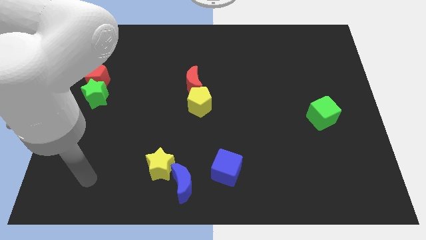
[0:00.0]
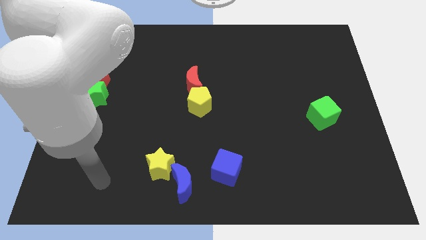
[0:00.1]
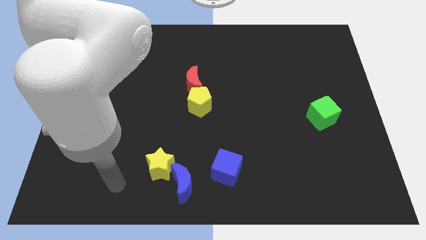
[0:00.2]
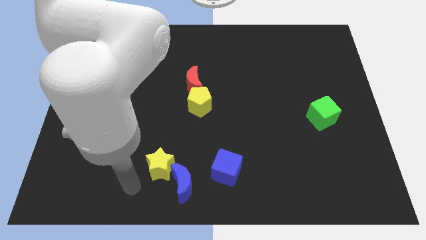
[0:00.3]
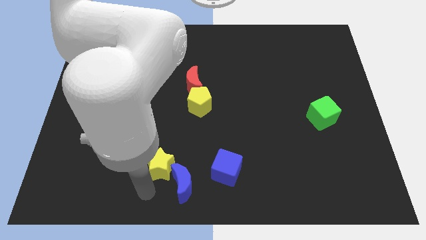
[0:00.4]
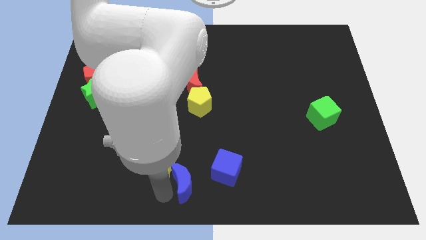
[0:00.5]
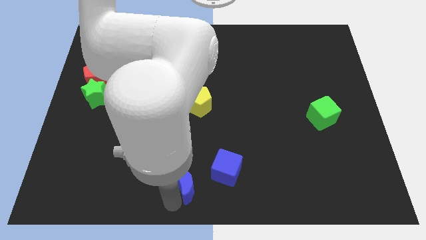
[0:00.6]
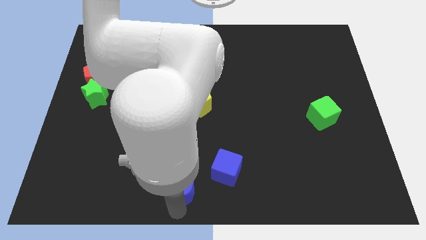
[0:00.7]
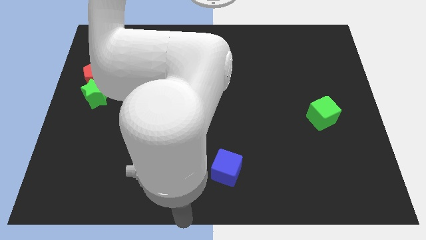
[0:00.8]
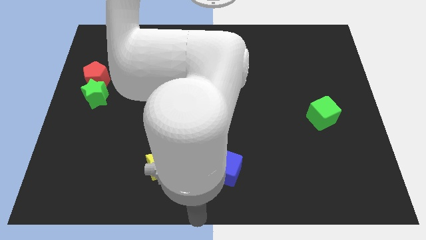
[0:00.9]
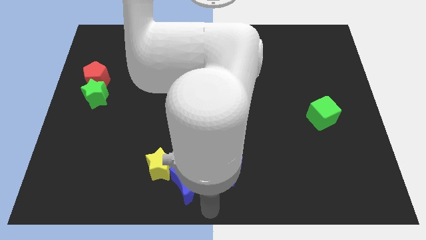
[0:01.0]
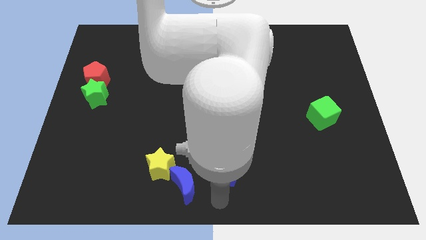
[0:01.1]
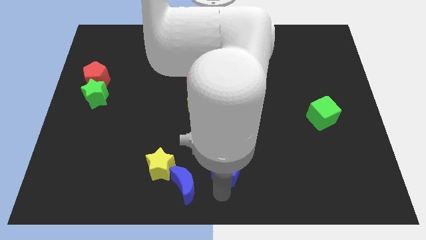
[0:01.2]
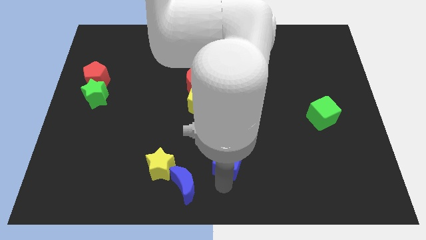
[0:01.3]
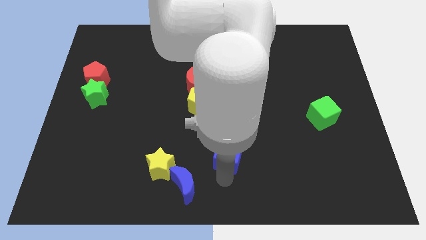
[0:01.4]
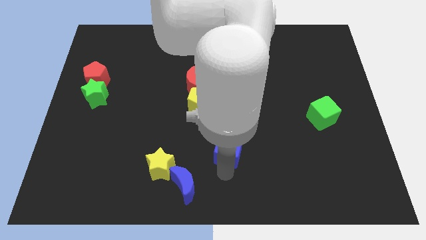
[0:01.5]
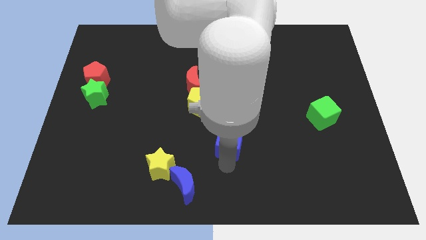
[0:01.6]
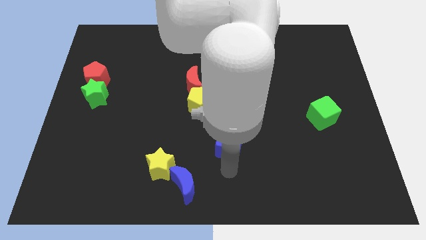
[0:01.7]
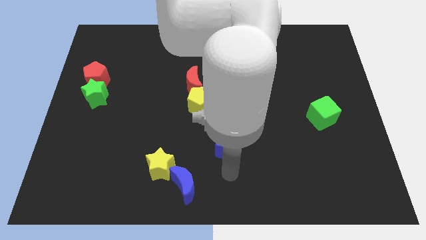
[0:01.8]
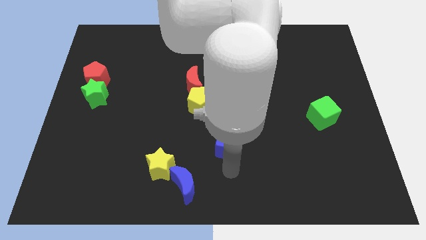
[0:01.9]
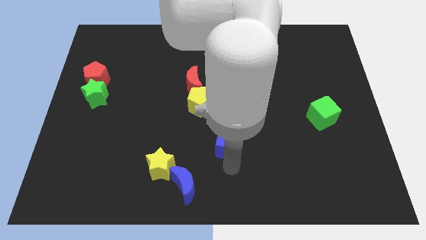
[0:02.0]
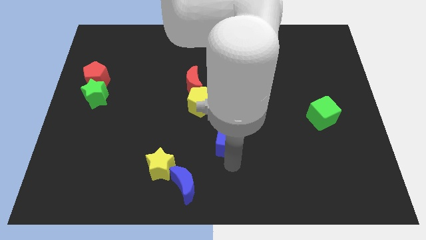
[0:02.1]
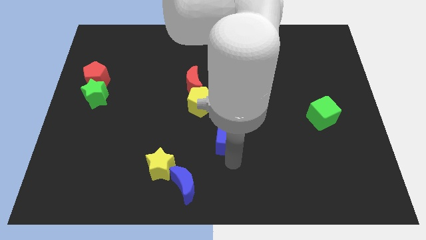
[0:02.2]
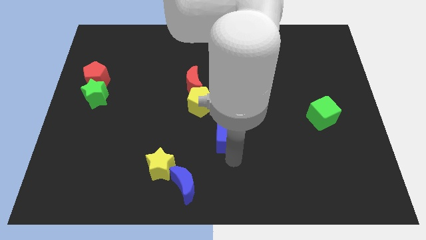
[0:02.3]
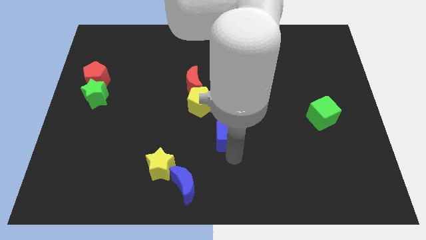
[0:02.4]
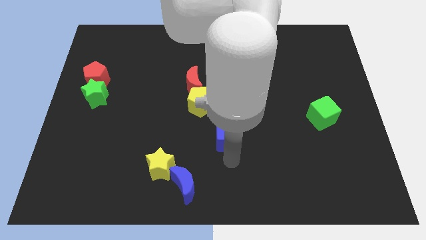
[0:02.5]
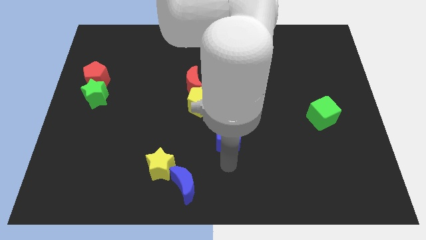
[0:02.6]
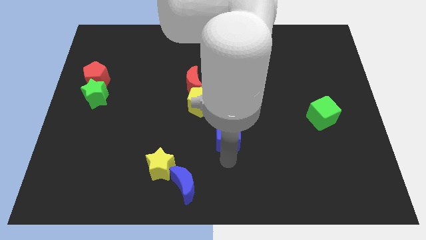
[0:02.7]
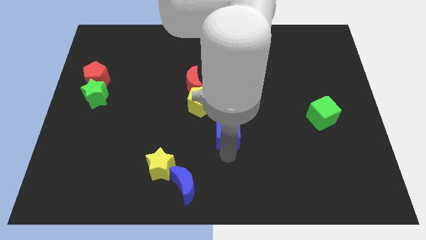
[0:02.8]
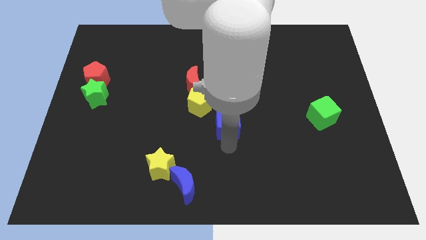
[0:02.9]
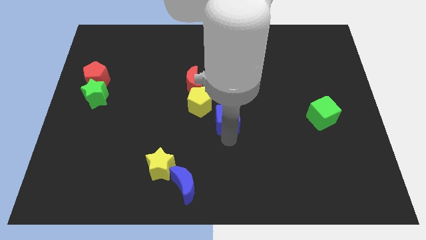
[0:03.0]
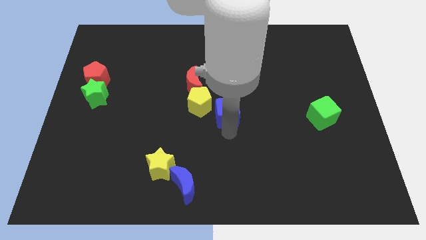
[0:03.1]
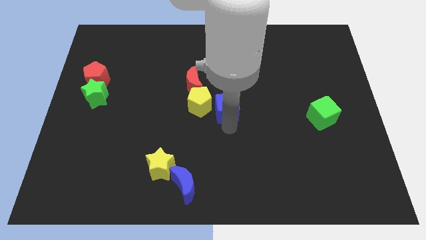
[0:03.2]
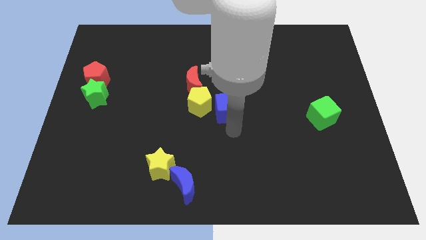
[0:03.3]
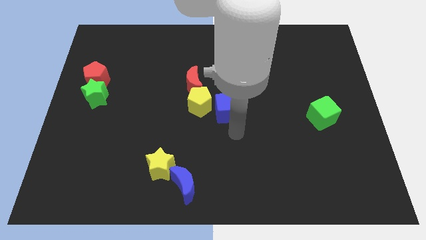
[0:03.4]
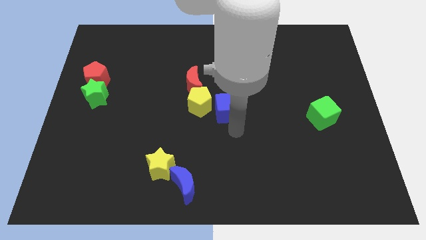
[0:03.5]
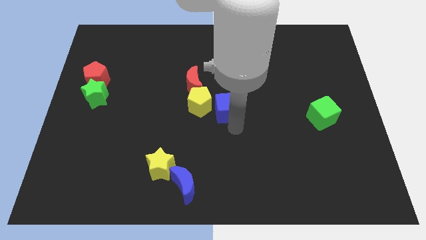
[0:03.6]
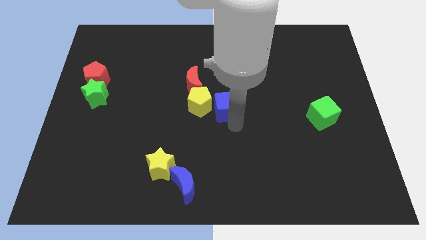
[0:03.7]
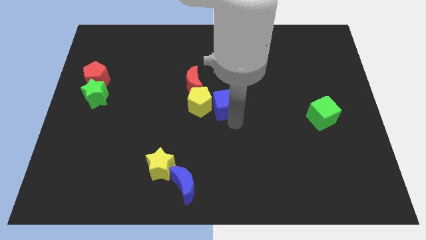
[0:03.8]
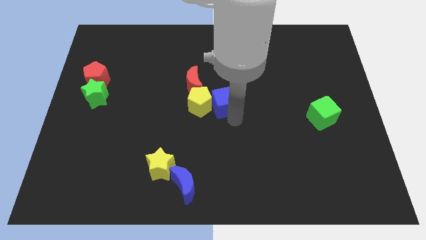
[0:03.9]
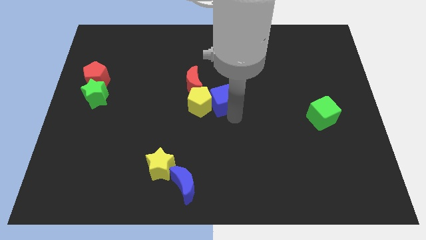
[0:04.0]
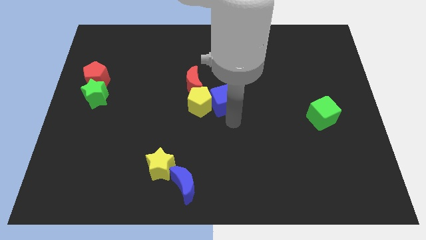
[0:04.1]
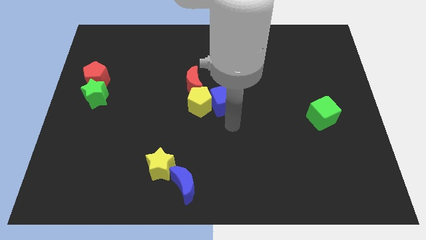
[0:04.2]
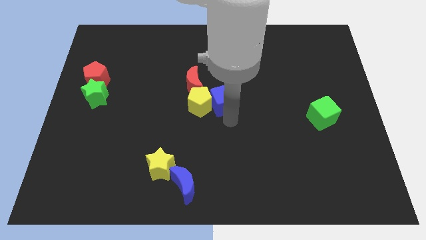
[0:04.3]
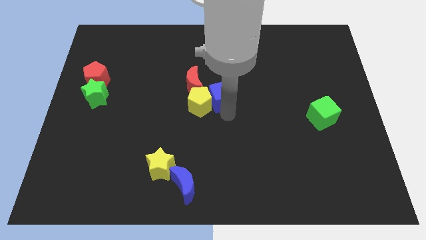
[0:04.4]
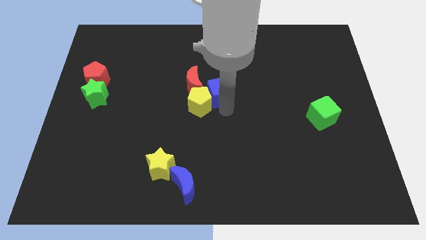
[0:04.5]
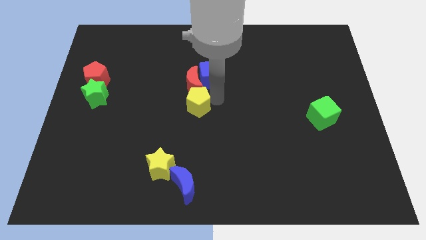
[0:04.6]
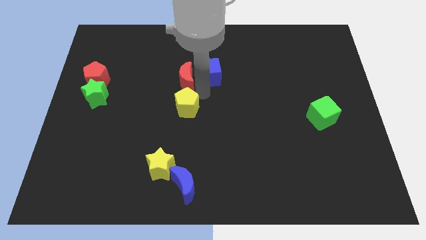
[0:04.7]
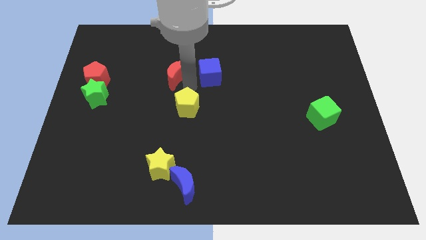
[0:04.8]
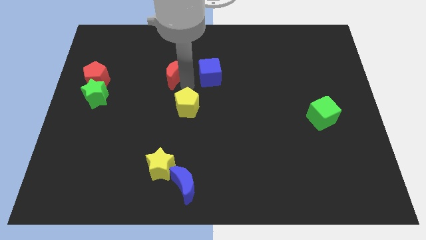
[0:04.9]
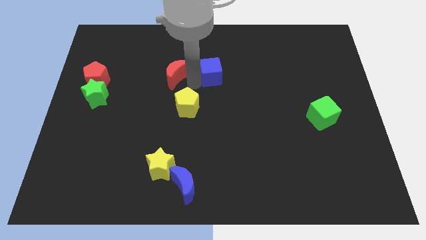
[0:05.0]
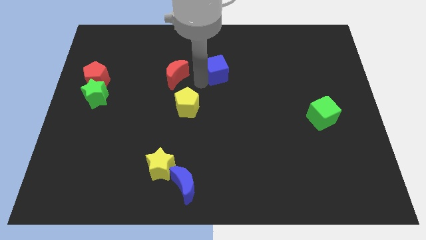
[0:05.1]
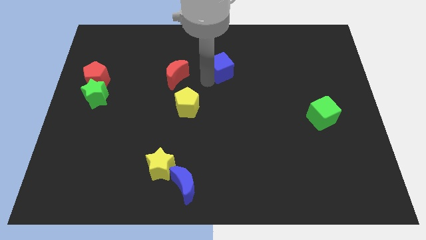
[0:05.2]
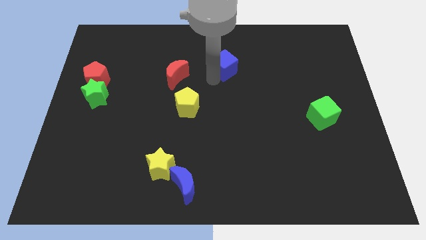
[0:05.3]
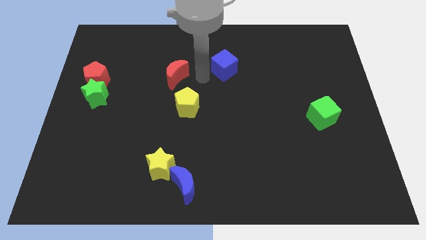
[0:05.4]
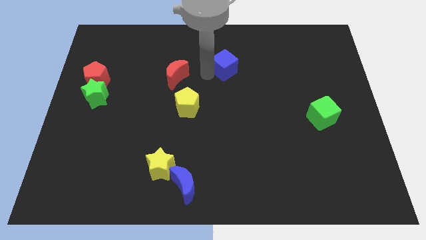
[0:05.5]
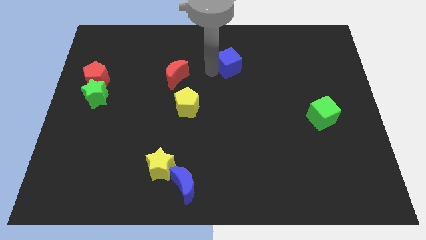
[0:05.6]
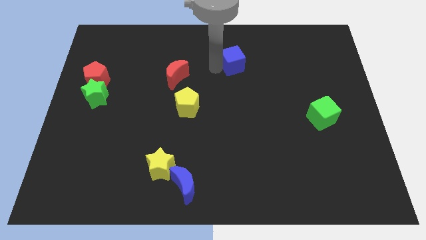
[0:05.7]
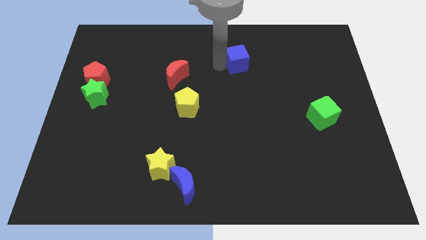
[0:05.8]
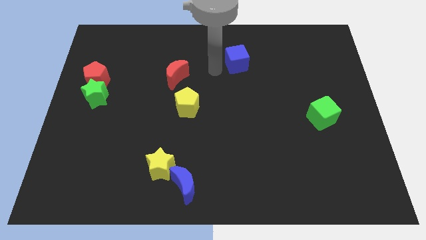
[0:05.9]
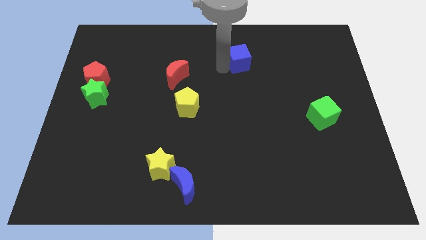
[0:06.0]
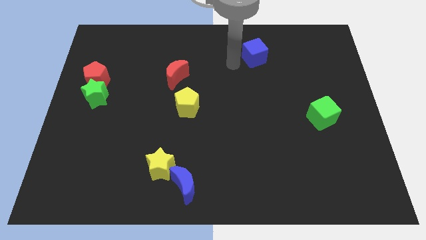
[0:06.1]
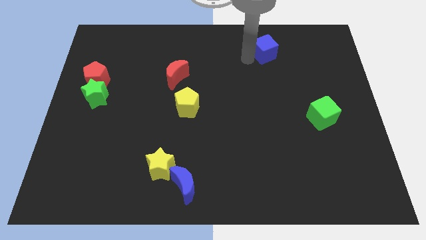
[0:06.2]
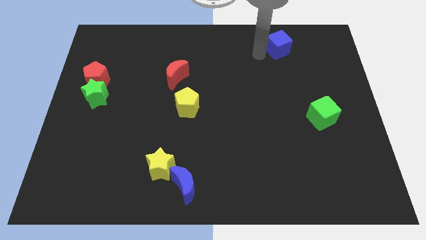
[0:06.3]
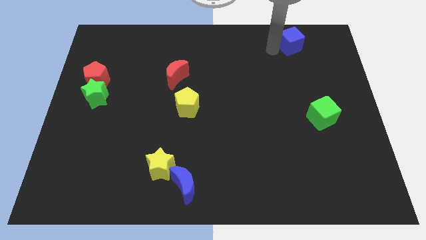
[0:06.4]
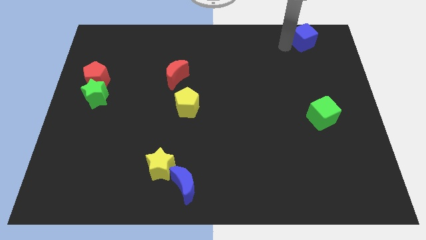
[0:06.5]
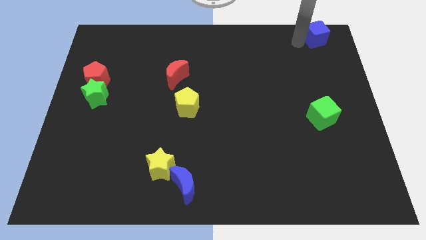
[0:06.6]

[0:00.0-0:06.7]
slide the blue cube to the top right corner
